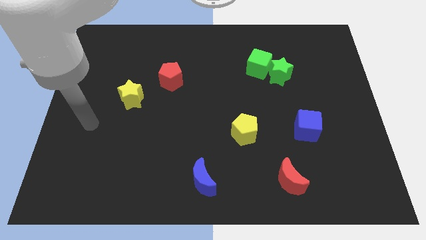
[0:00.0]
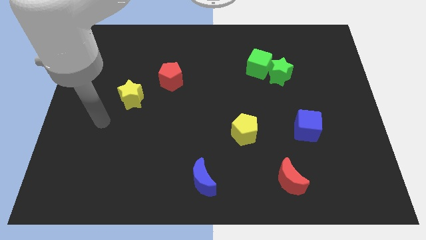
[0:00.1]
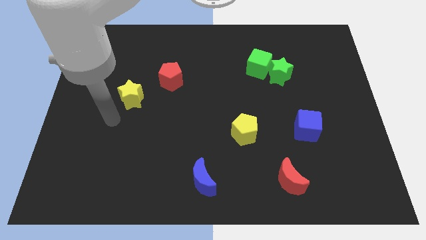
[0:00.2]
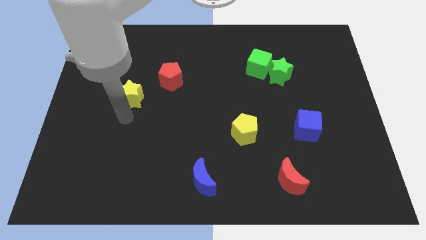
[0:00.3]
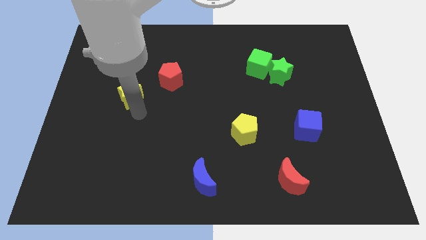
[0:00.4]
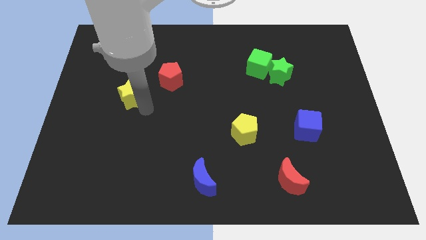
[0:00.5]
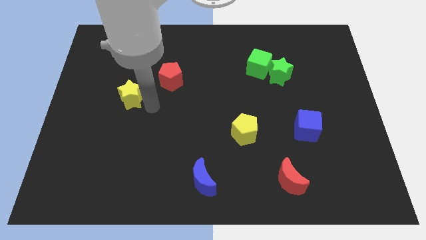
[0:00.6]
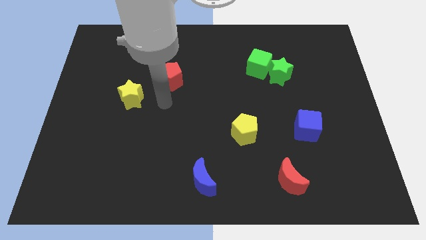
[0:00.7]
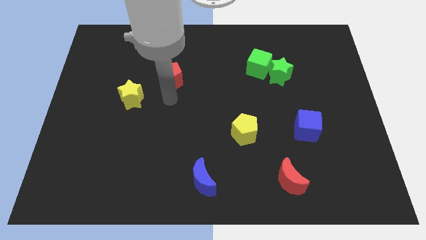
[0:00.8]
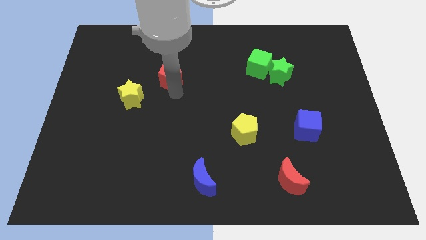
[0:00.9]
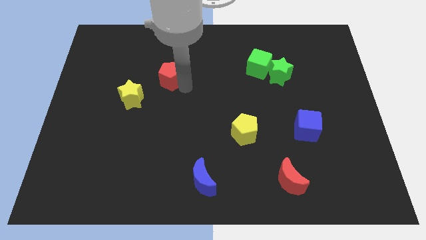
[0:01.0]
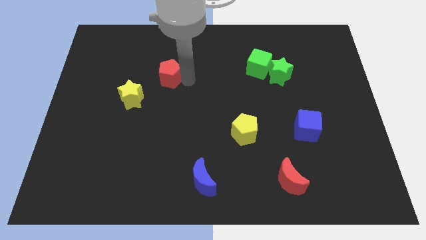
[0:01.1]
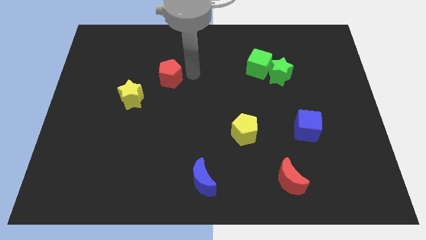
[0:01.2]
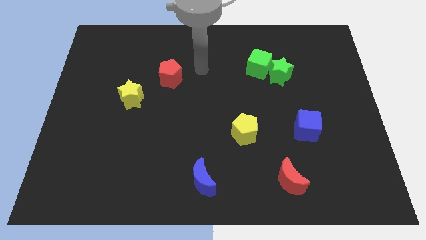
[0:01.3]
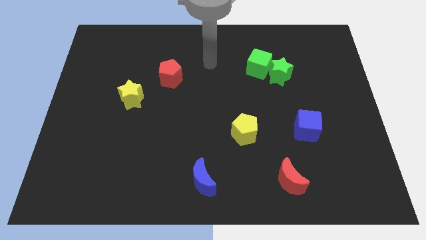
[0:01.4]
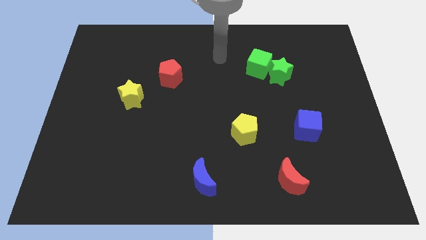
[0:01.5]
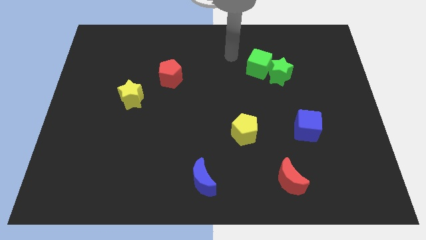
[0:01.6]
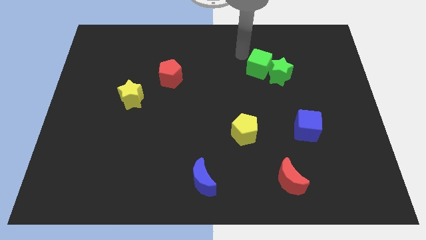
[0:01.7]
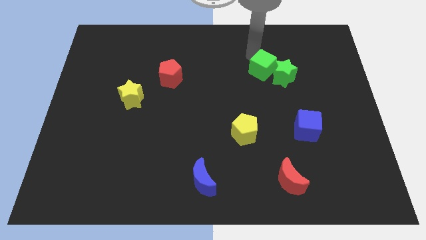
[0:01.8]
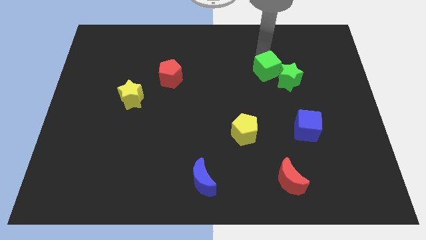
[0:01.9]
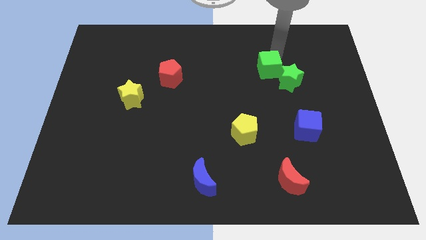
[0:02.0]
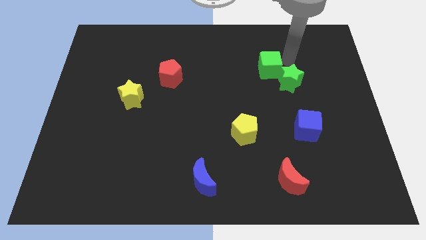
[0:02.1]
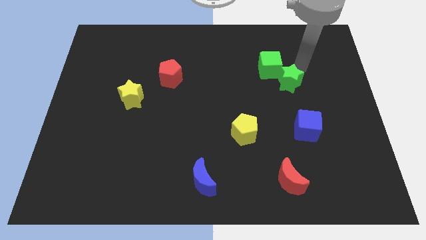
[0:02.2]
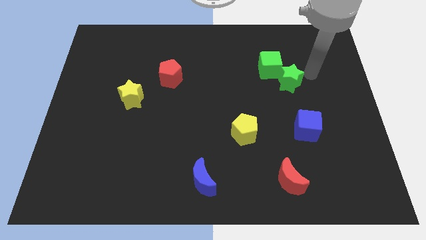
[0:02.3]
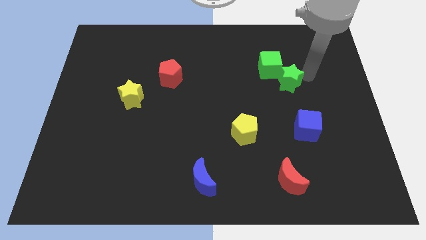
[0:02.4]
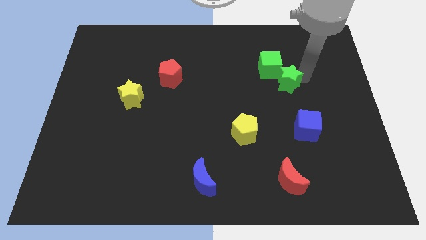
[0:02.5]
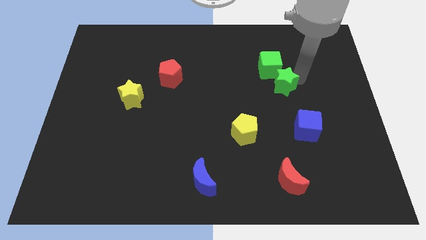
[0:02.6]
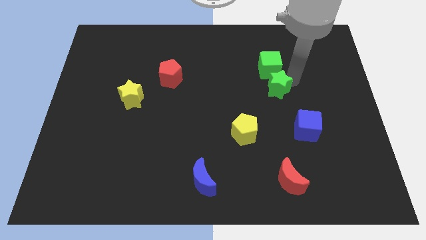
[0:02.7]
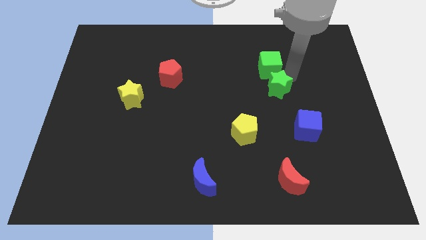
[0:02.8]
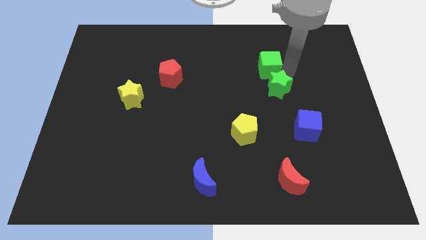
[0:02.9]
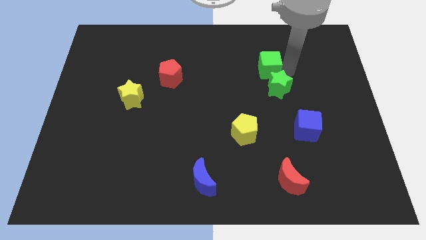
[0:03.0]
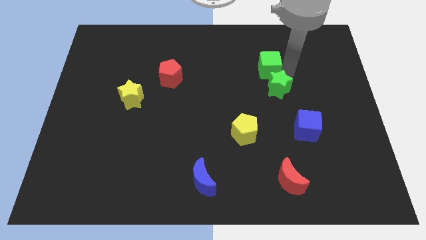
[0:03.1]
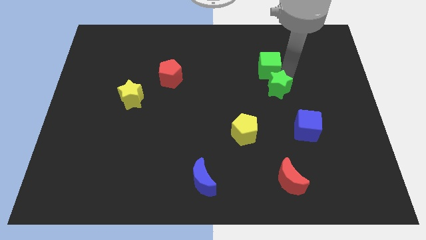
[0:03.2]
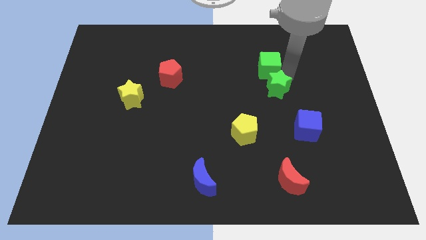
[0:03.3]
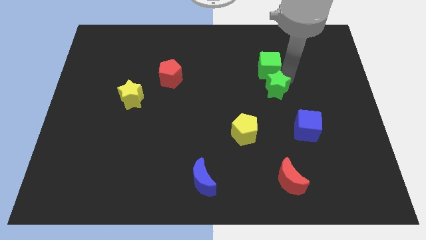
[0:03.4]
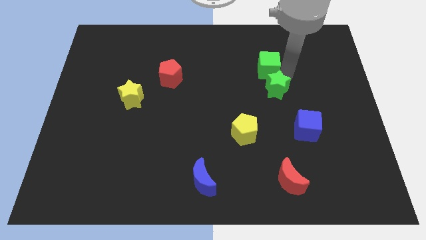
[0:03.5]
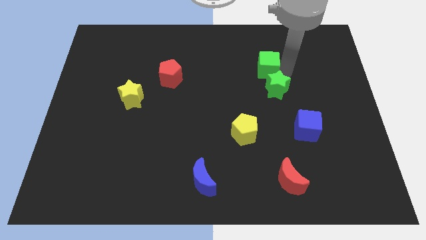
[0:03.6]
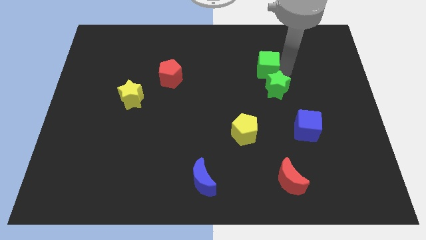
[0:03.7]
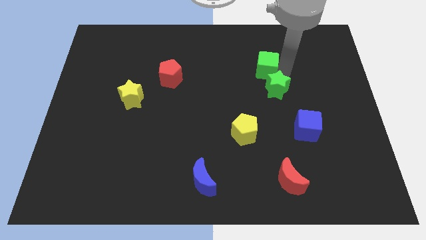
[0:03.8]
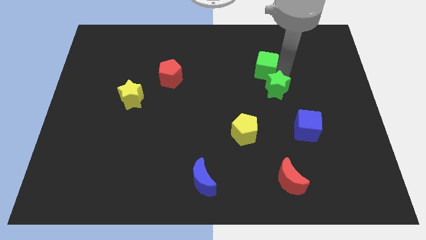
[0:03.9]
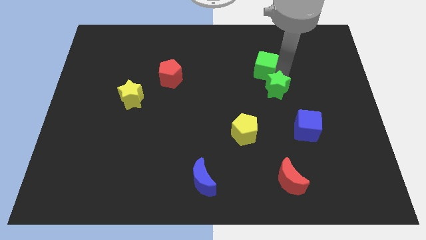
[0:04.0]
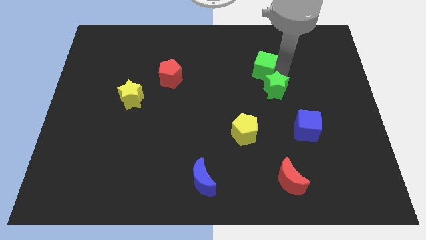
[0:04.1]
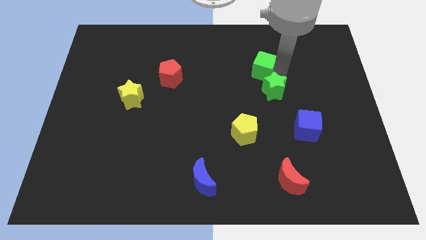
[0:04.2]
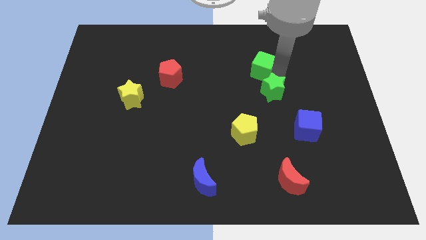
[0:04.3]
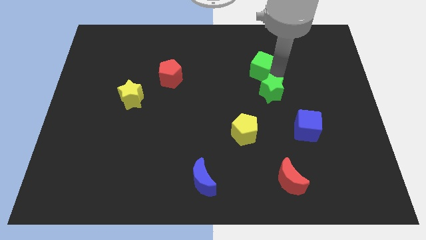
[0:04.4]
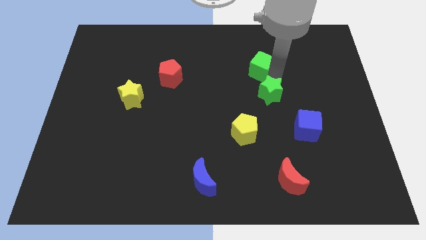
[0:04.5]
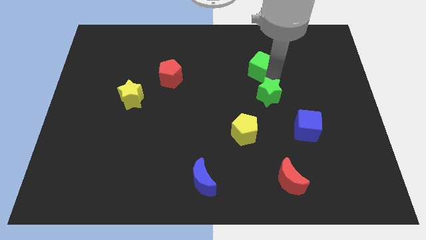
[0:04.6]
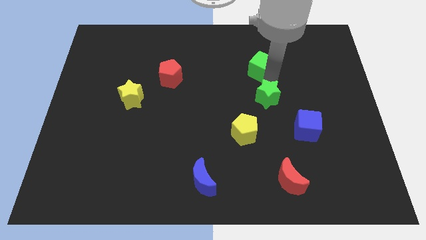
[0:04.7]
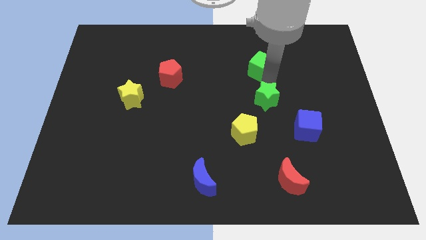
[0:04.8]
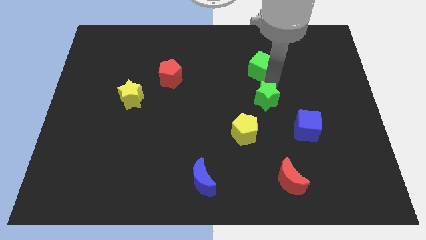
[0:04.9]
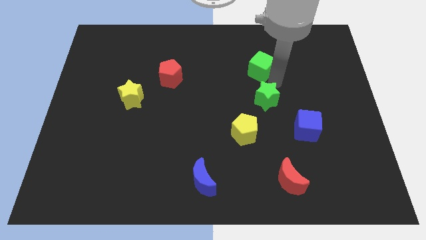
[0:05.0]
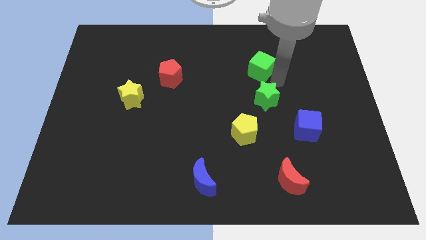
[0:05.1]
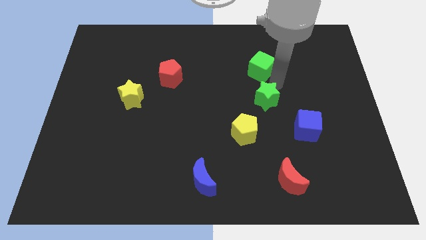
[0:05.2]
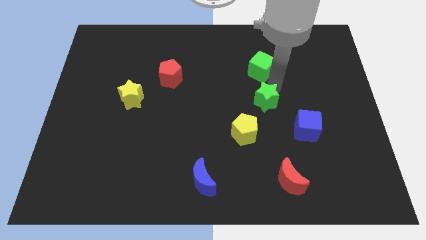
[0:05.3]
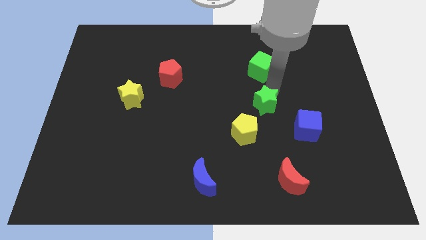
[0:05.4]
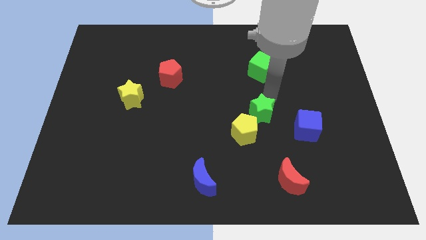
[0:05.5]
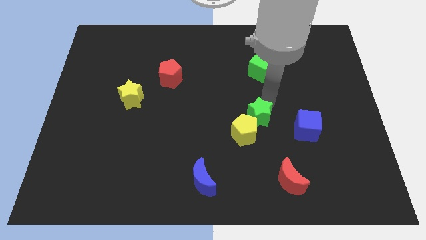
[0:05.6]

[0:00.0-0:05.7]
push the green star towards the yellow pentagon
